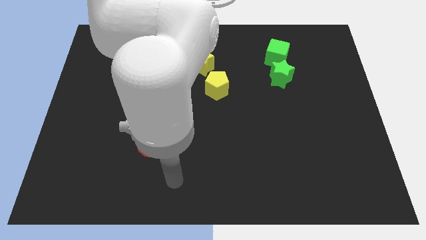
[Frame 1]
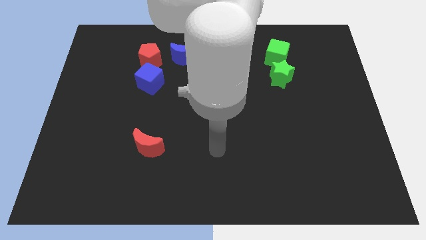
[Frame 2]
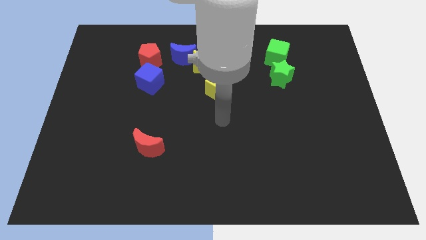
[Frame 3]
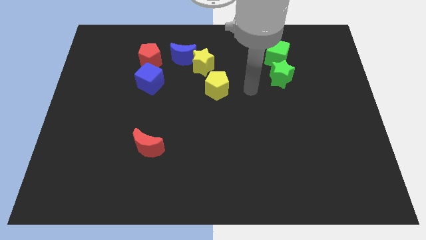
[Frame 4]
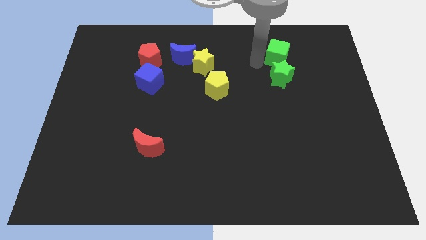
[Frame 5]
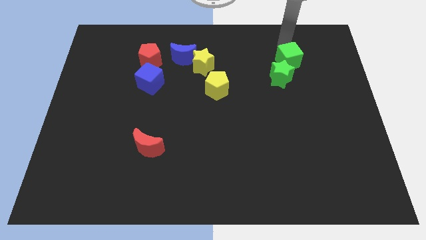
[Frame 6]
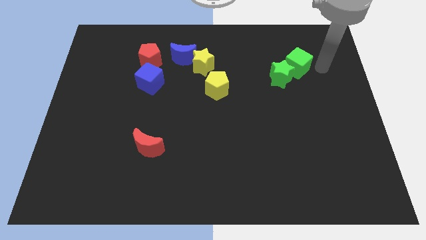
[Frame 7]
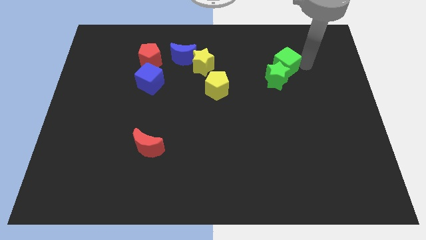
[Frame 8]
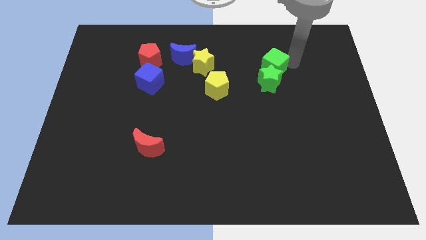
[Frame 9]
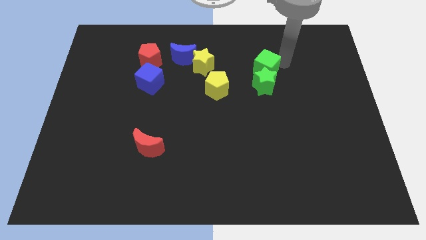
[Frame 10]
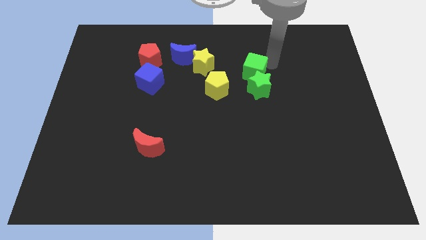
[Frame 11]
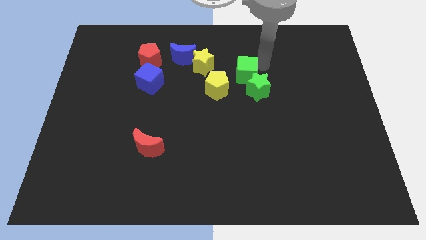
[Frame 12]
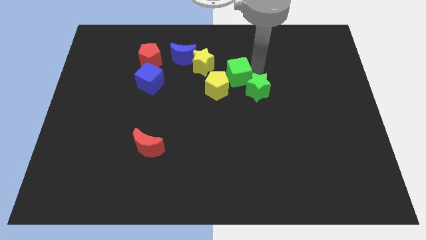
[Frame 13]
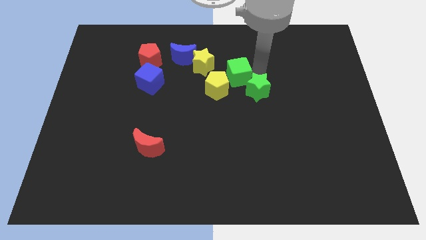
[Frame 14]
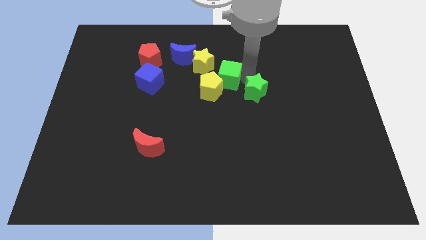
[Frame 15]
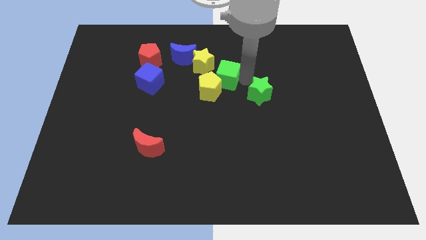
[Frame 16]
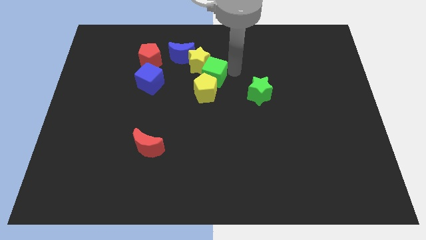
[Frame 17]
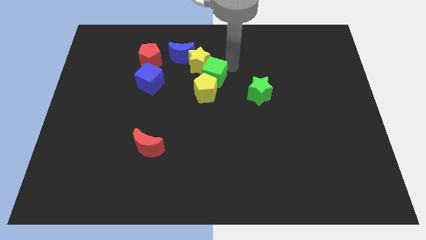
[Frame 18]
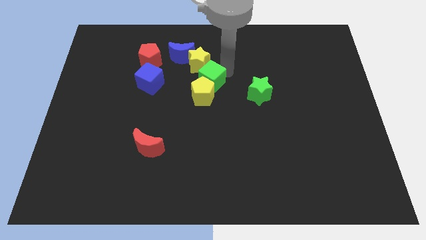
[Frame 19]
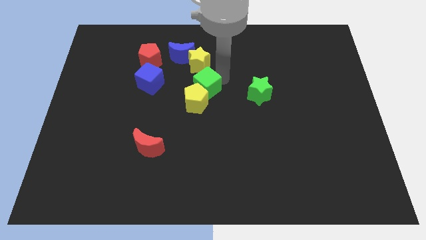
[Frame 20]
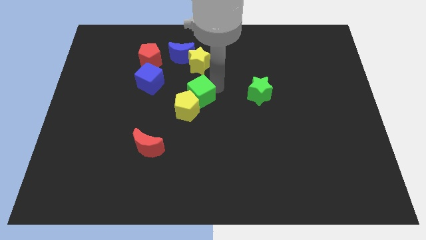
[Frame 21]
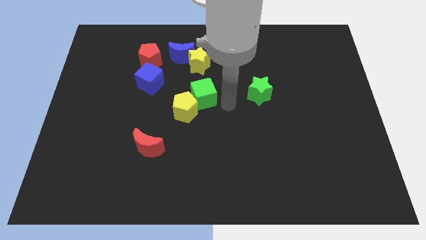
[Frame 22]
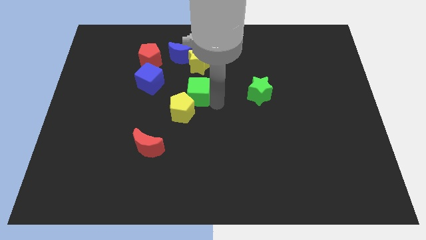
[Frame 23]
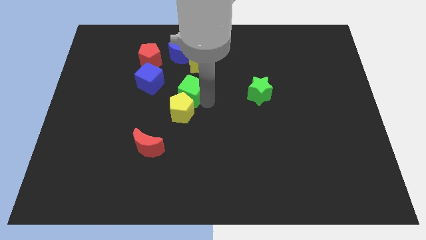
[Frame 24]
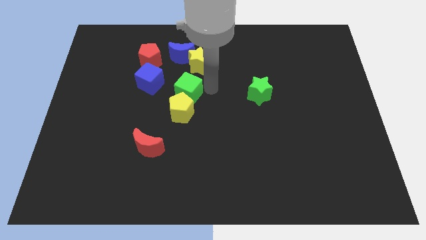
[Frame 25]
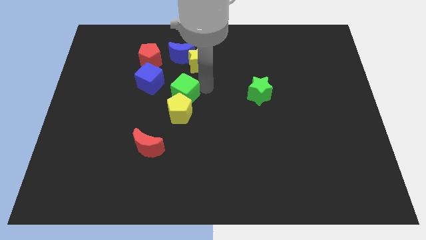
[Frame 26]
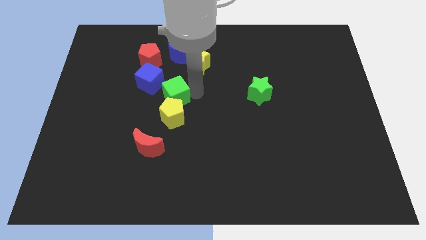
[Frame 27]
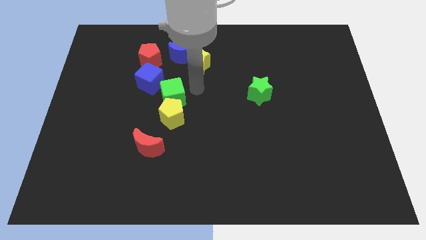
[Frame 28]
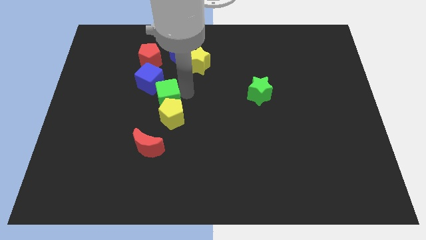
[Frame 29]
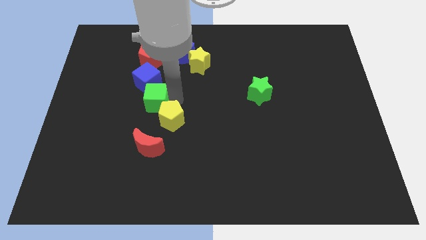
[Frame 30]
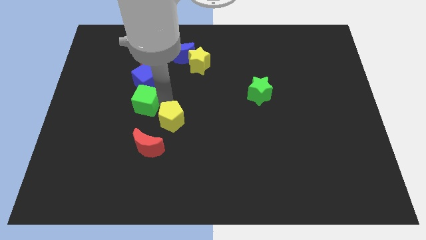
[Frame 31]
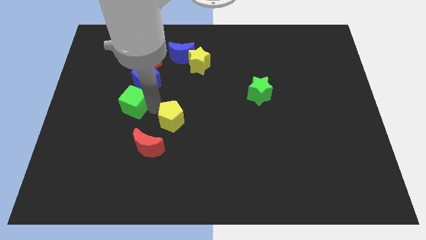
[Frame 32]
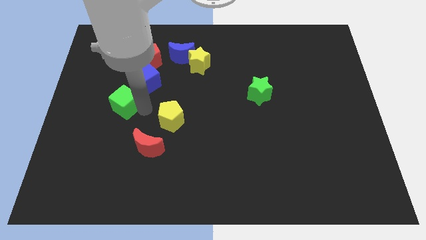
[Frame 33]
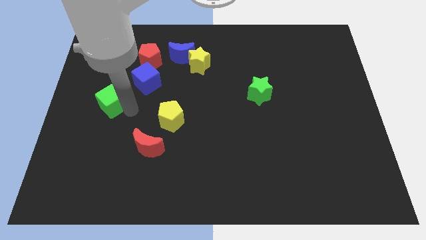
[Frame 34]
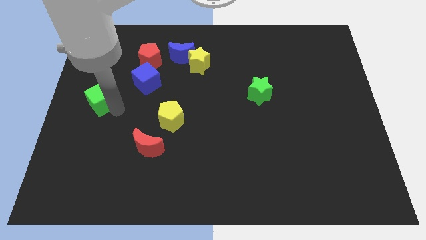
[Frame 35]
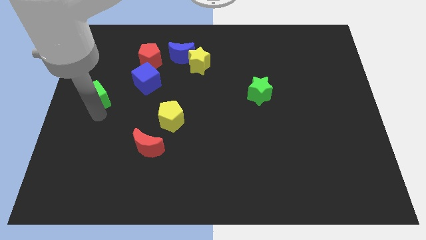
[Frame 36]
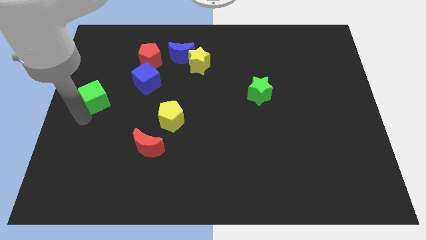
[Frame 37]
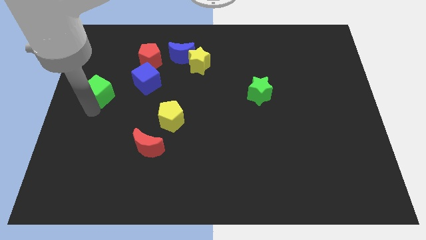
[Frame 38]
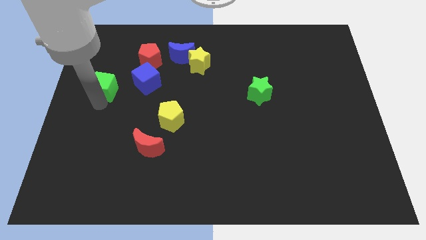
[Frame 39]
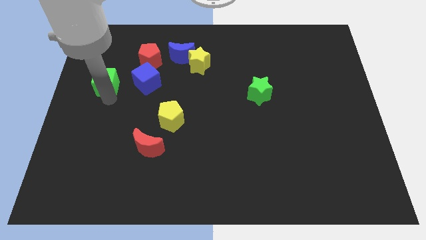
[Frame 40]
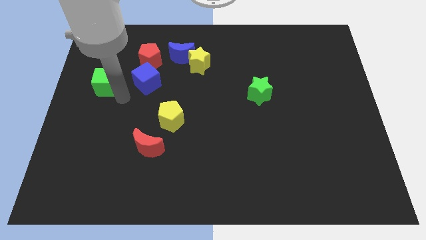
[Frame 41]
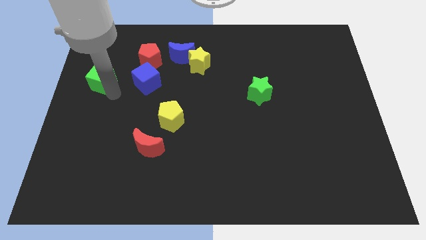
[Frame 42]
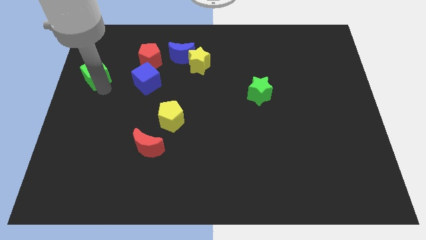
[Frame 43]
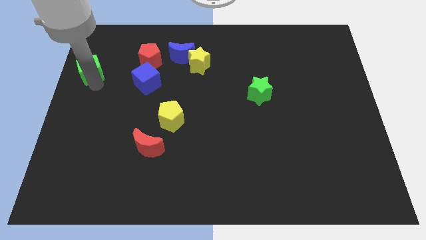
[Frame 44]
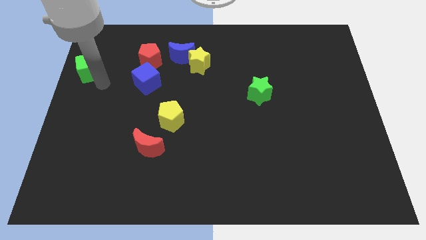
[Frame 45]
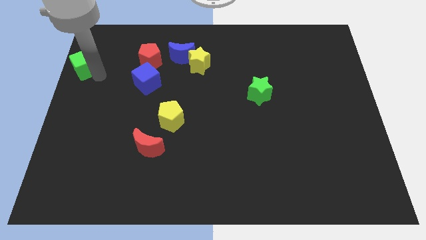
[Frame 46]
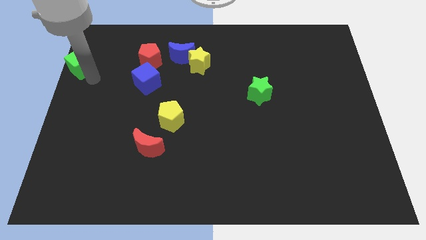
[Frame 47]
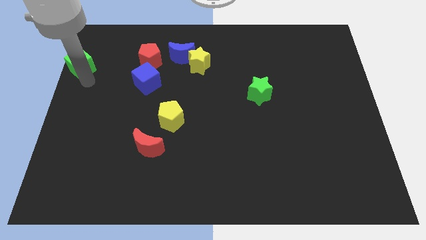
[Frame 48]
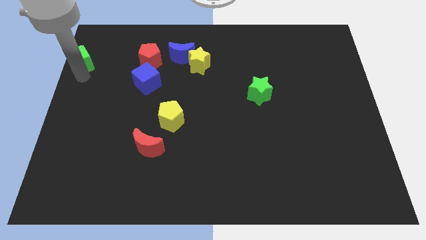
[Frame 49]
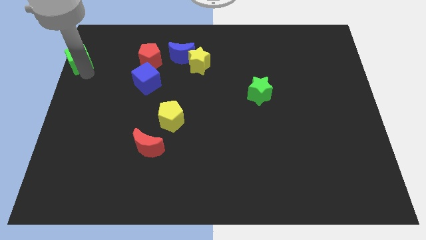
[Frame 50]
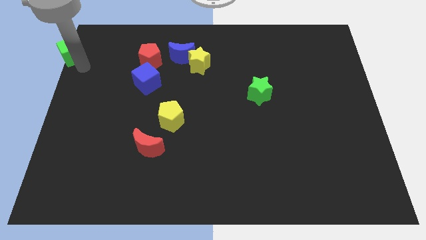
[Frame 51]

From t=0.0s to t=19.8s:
put the green cube to the top left

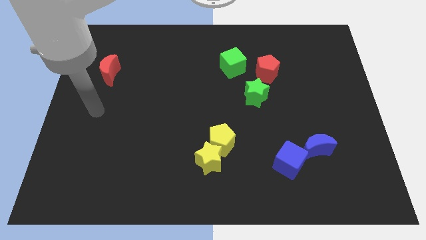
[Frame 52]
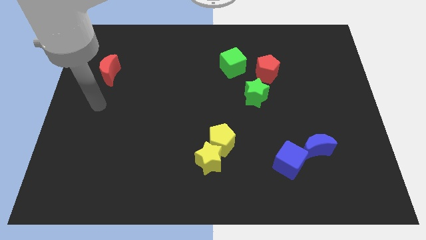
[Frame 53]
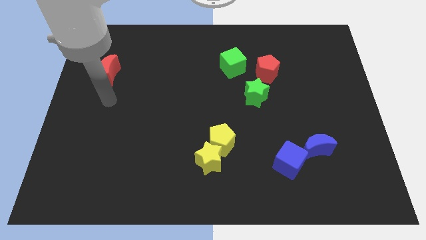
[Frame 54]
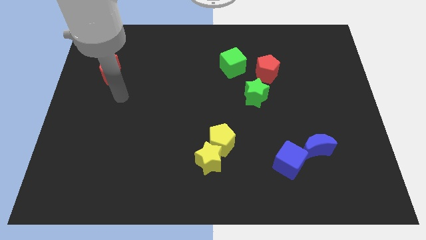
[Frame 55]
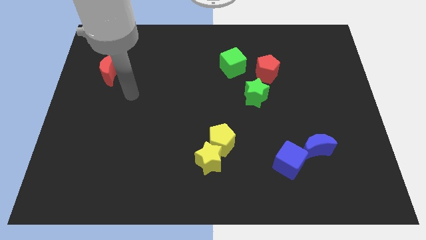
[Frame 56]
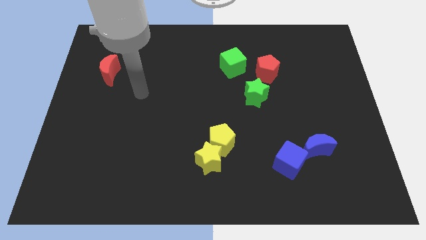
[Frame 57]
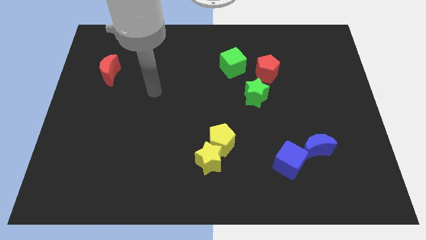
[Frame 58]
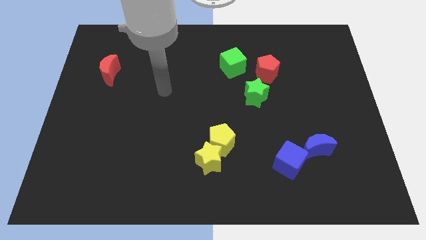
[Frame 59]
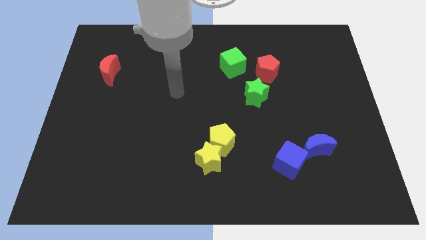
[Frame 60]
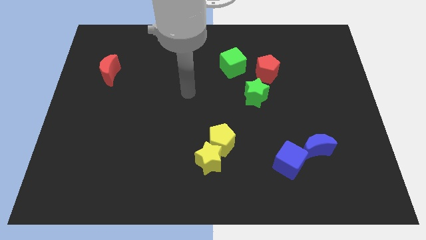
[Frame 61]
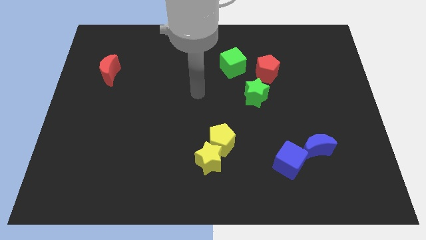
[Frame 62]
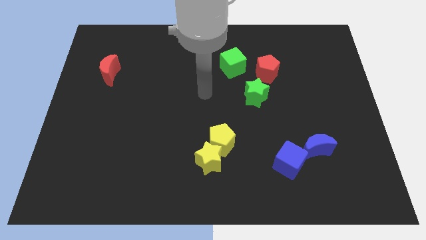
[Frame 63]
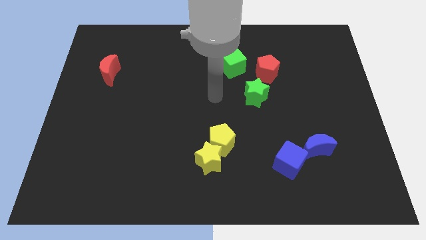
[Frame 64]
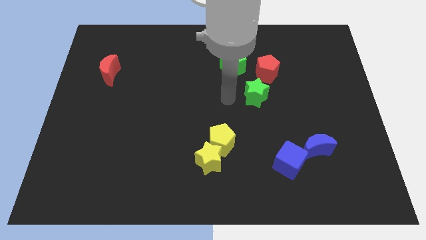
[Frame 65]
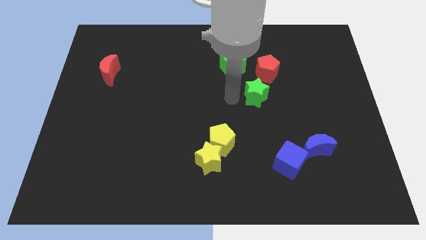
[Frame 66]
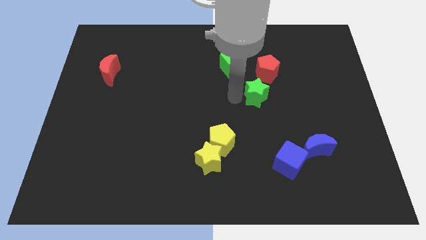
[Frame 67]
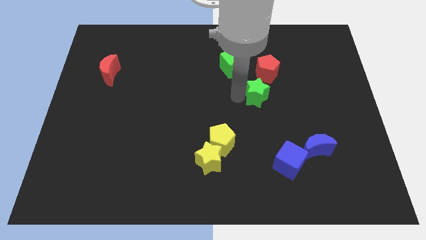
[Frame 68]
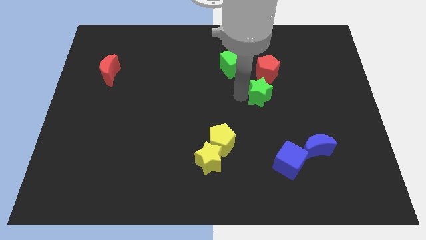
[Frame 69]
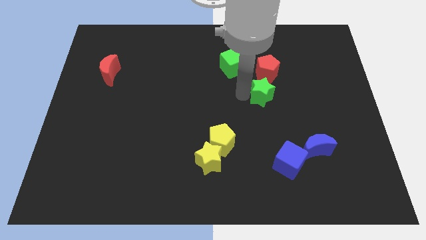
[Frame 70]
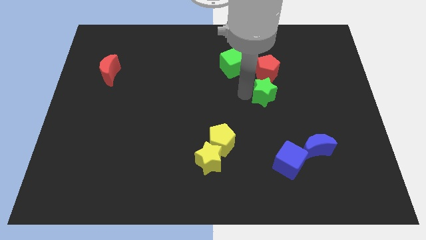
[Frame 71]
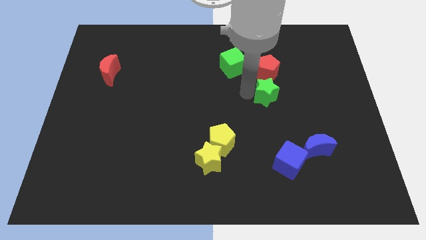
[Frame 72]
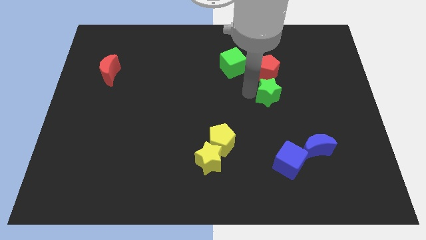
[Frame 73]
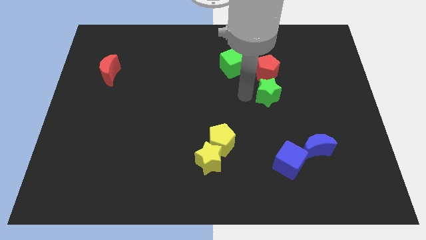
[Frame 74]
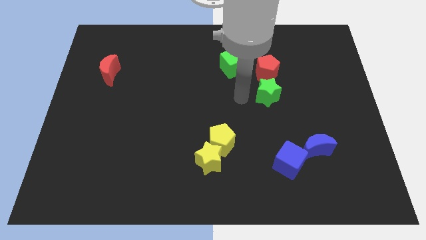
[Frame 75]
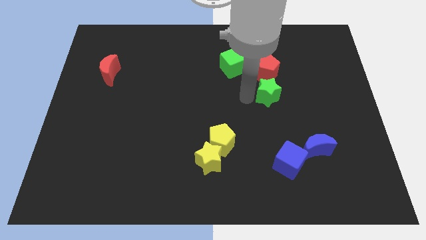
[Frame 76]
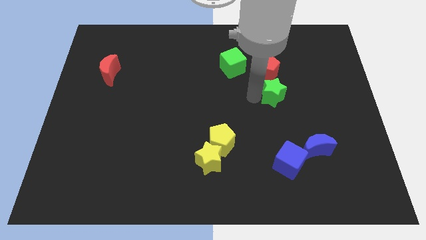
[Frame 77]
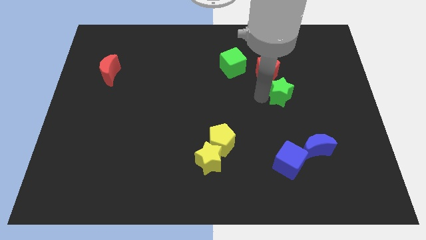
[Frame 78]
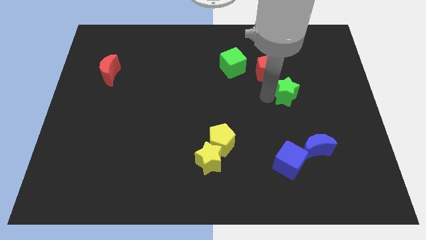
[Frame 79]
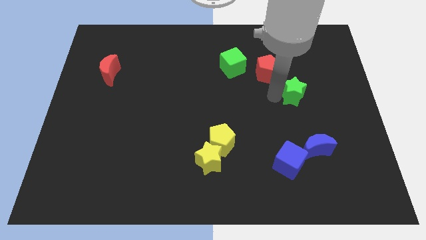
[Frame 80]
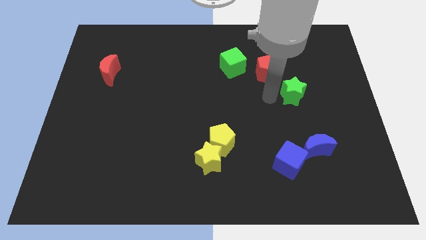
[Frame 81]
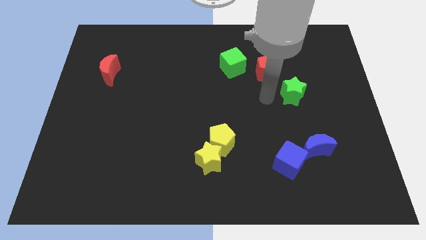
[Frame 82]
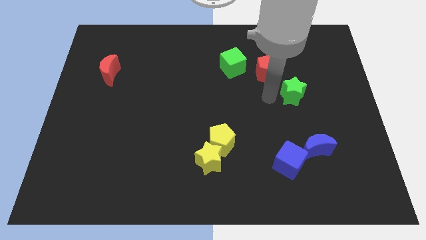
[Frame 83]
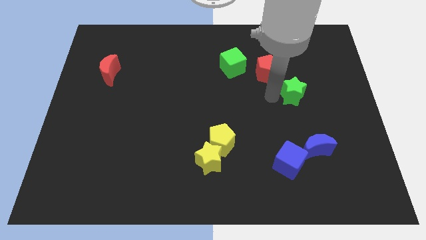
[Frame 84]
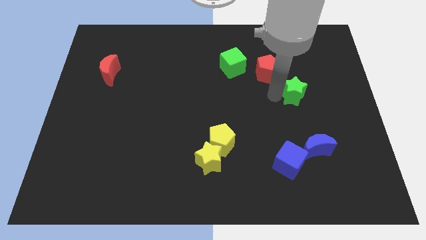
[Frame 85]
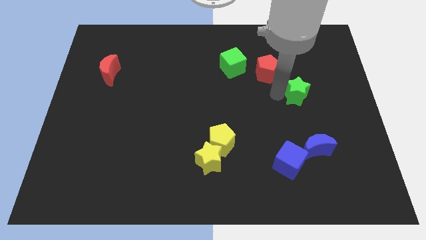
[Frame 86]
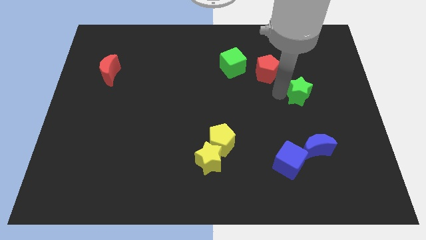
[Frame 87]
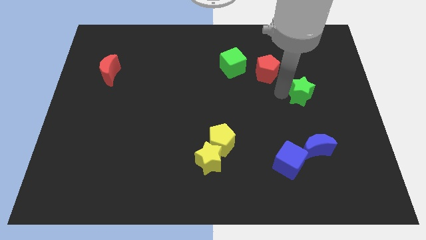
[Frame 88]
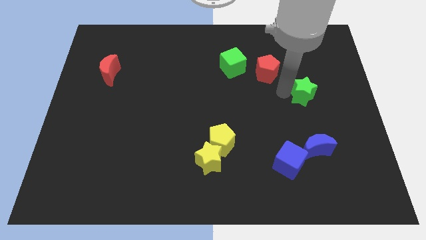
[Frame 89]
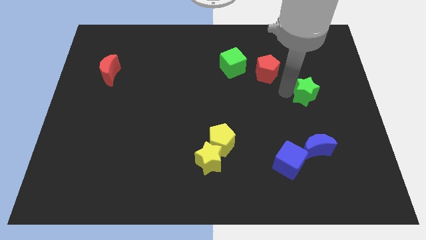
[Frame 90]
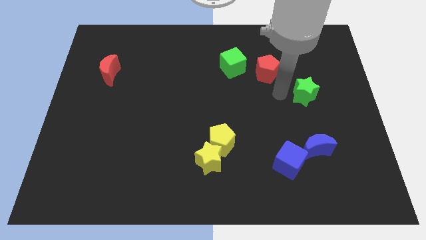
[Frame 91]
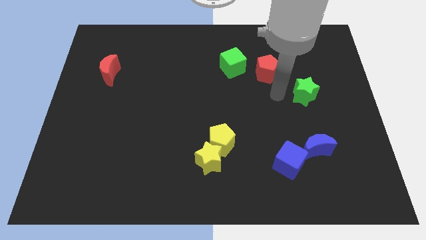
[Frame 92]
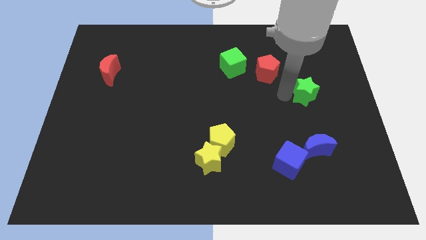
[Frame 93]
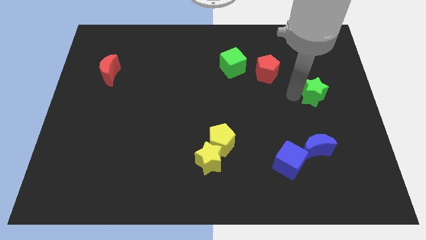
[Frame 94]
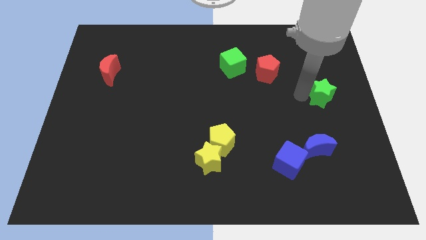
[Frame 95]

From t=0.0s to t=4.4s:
slide the green star to the right side
